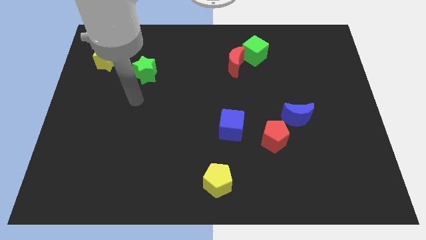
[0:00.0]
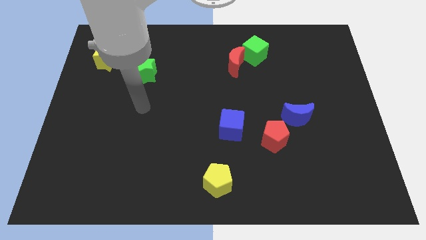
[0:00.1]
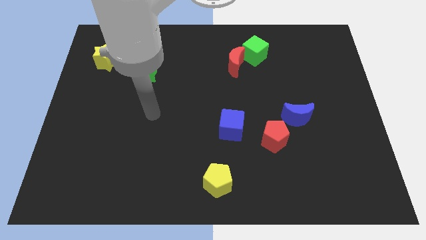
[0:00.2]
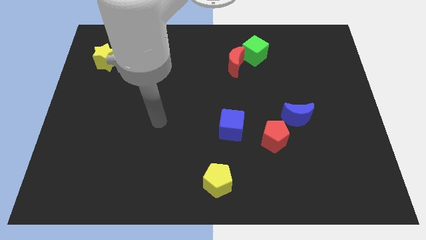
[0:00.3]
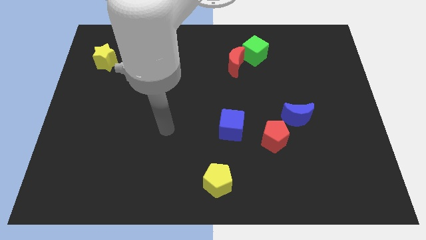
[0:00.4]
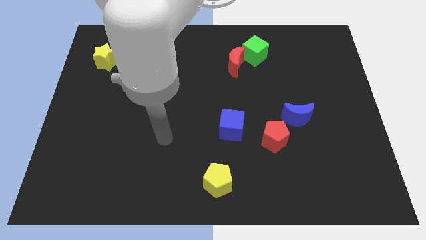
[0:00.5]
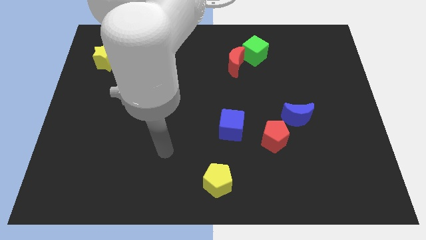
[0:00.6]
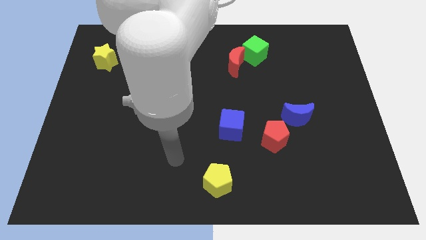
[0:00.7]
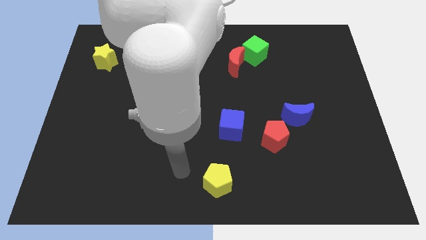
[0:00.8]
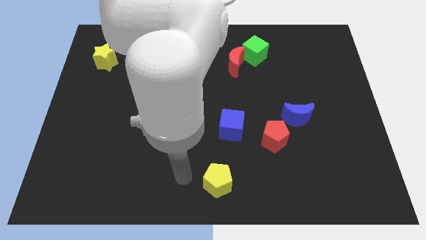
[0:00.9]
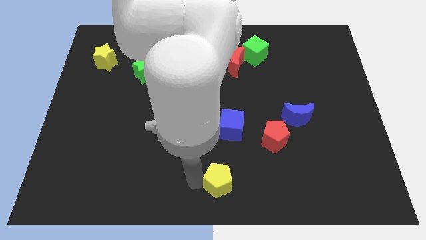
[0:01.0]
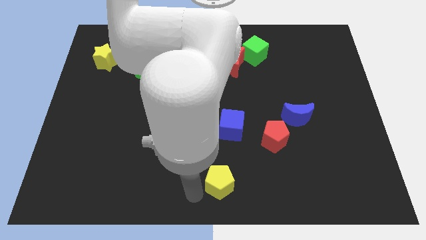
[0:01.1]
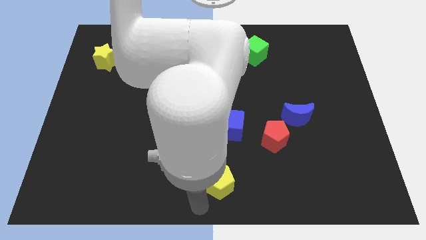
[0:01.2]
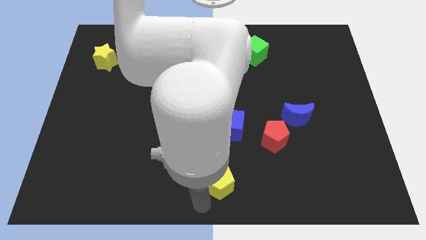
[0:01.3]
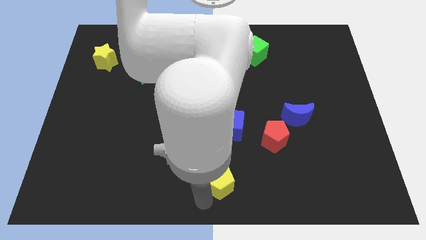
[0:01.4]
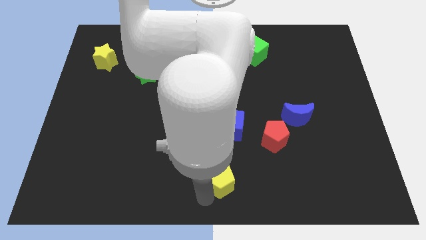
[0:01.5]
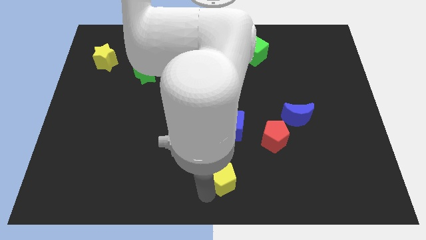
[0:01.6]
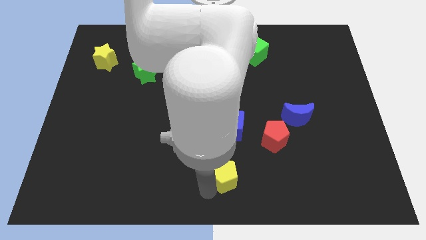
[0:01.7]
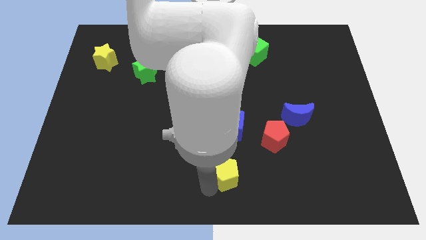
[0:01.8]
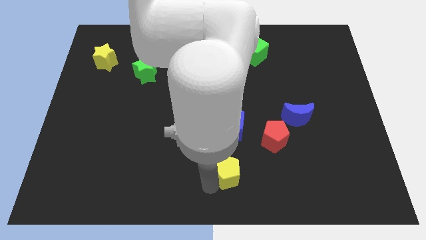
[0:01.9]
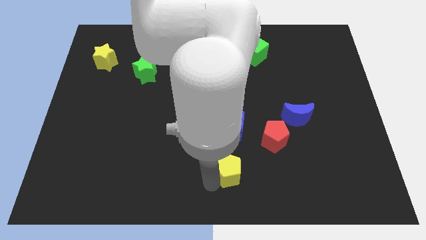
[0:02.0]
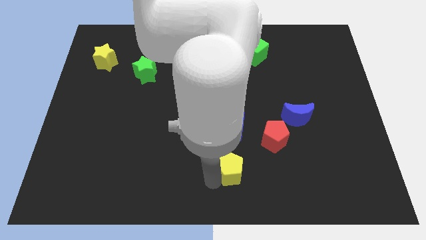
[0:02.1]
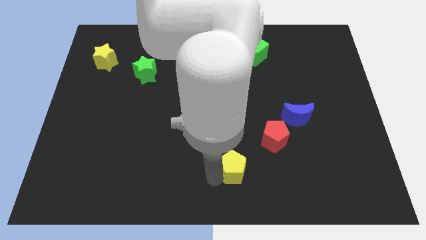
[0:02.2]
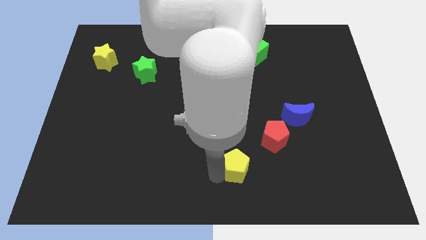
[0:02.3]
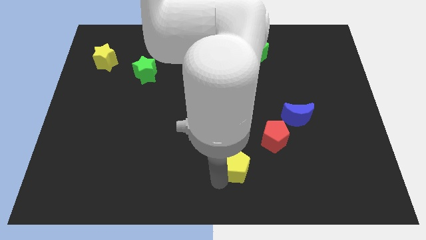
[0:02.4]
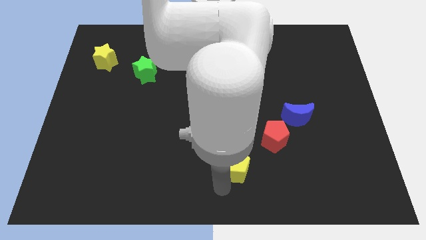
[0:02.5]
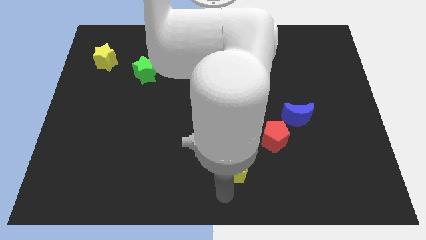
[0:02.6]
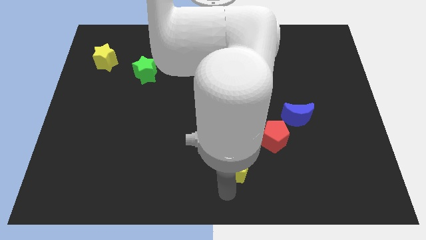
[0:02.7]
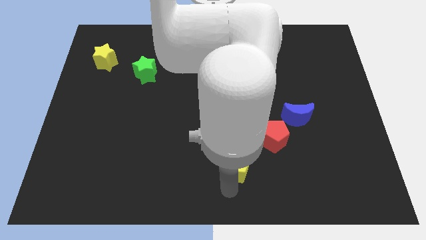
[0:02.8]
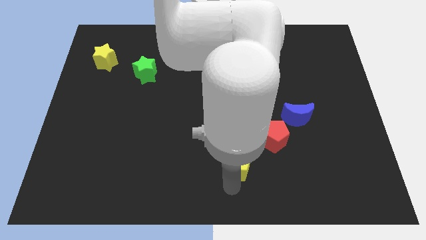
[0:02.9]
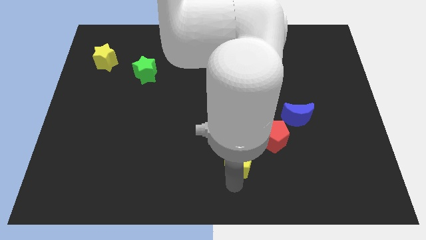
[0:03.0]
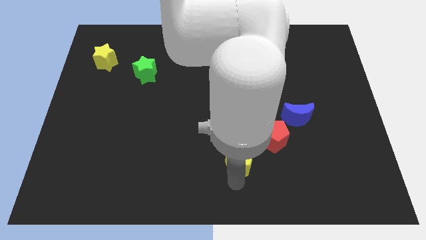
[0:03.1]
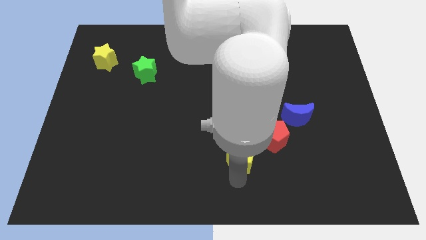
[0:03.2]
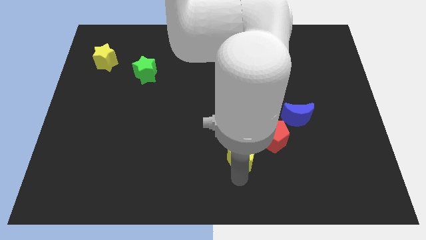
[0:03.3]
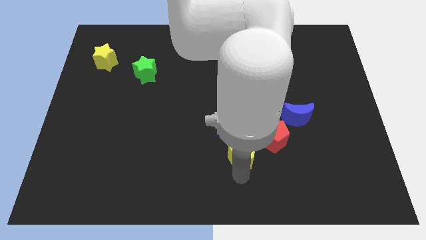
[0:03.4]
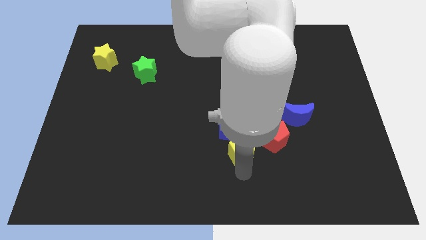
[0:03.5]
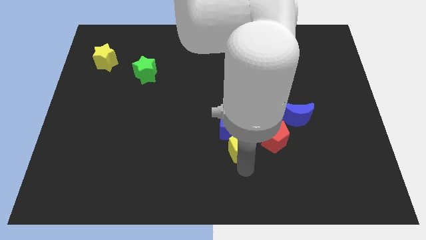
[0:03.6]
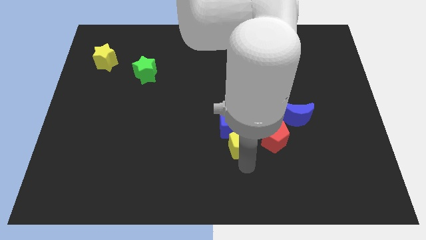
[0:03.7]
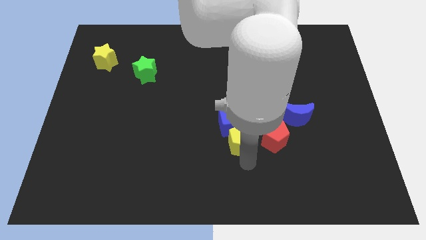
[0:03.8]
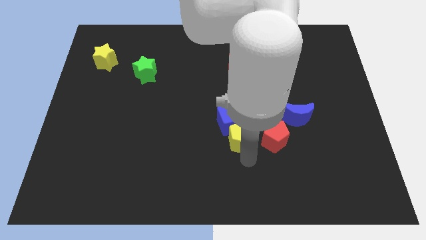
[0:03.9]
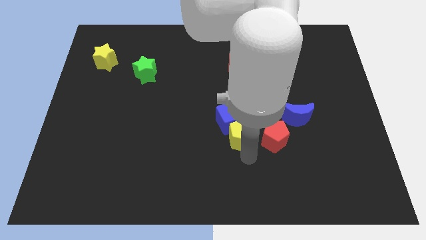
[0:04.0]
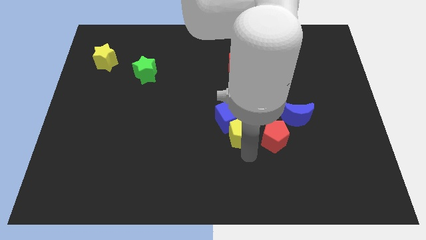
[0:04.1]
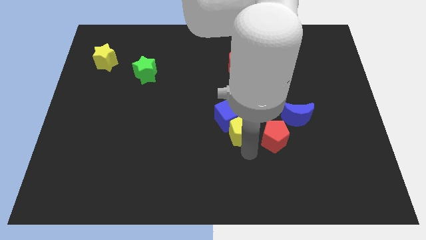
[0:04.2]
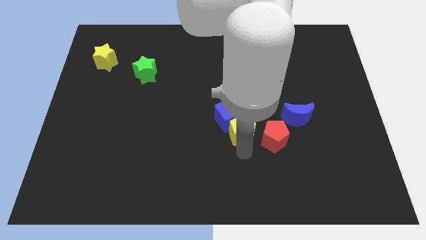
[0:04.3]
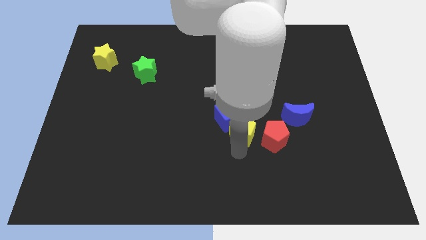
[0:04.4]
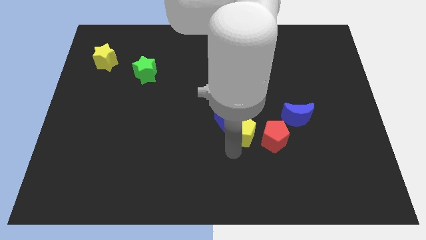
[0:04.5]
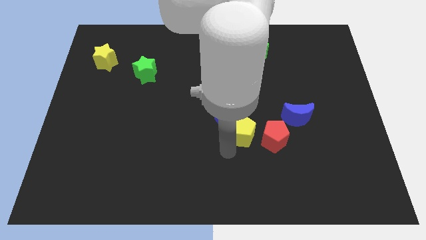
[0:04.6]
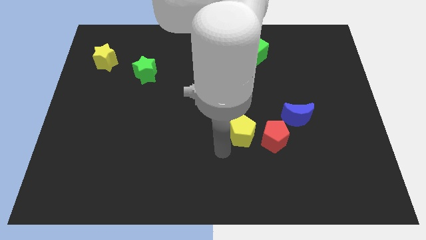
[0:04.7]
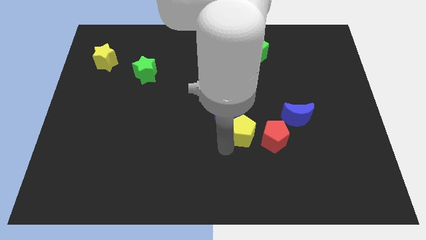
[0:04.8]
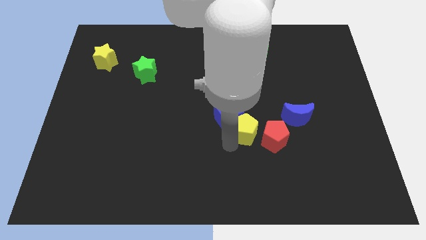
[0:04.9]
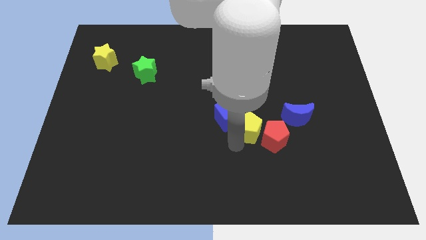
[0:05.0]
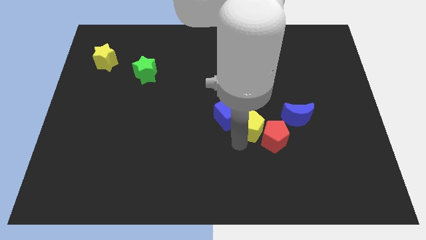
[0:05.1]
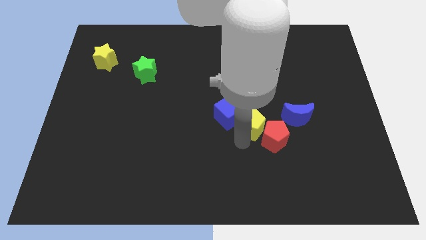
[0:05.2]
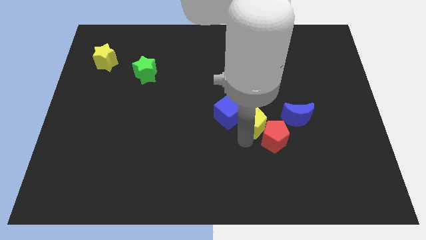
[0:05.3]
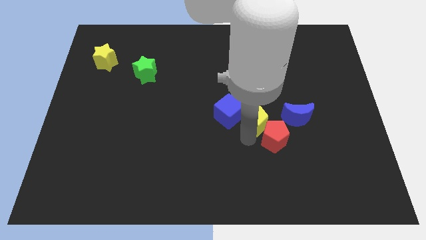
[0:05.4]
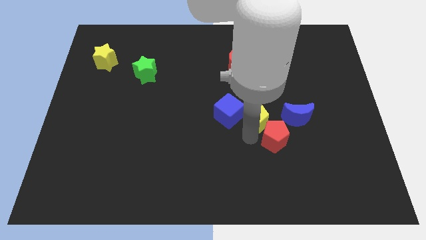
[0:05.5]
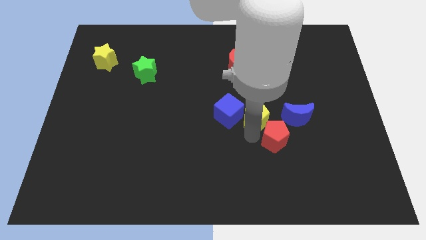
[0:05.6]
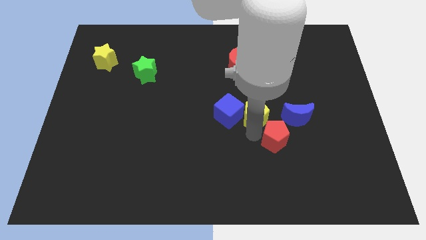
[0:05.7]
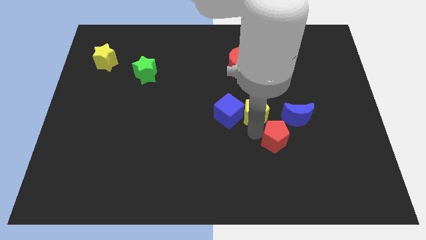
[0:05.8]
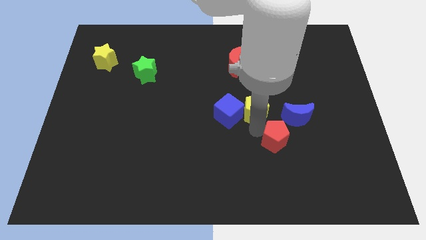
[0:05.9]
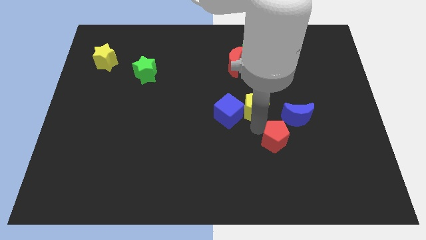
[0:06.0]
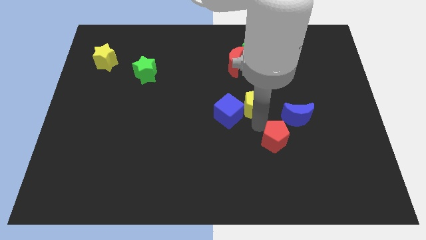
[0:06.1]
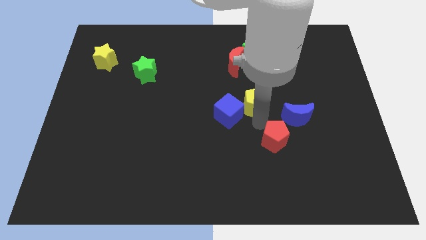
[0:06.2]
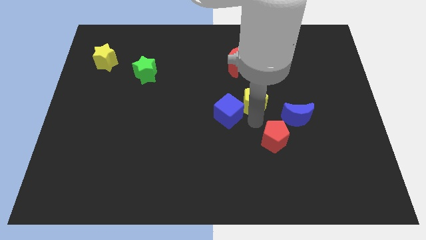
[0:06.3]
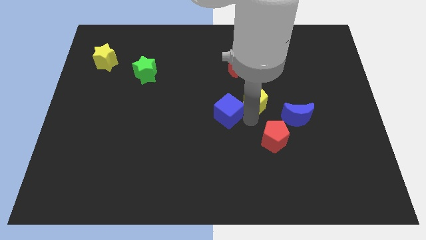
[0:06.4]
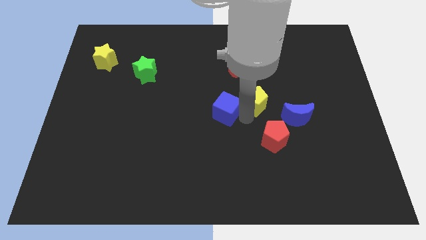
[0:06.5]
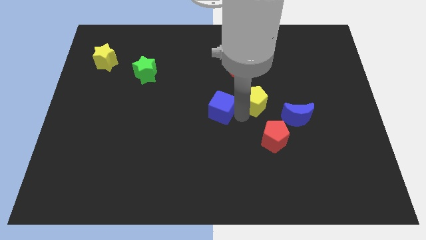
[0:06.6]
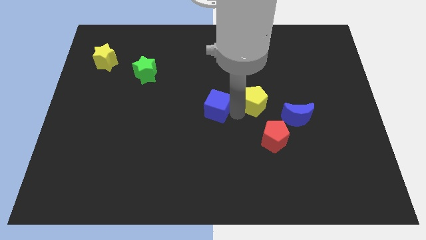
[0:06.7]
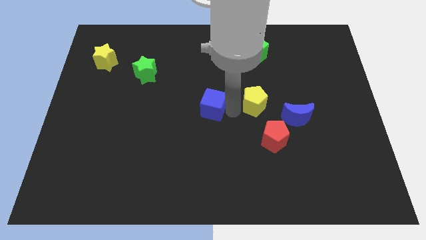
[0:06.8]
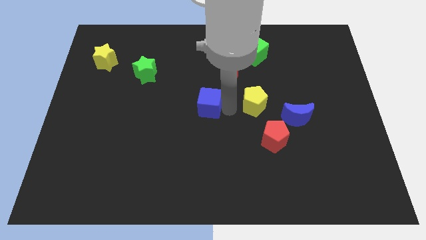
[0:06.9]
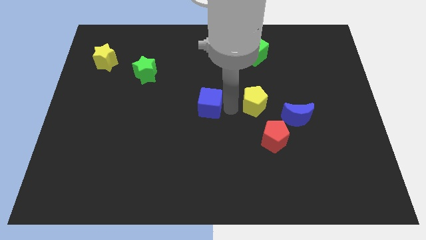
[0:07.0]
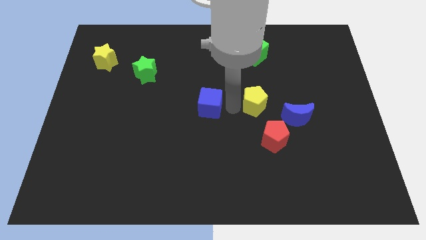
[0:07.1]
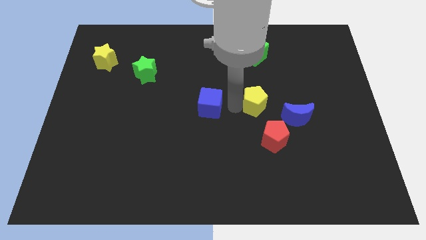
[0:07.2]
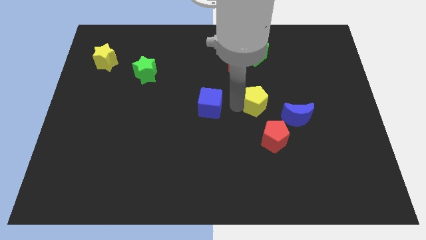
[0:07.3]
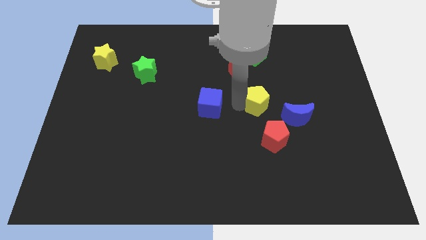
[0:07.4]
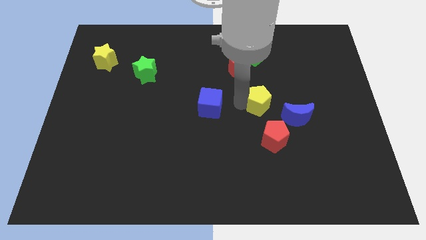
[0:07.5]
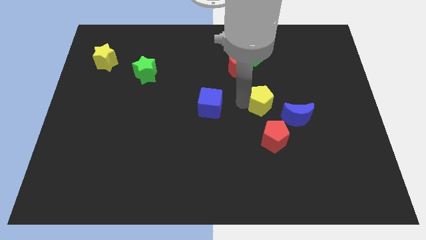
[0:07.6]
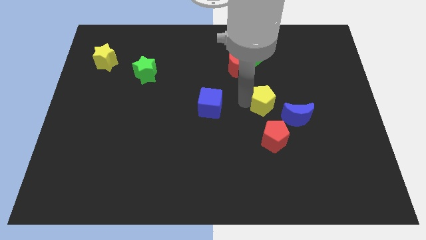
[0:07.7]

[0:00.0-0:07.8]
push the yellow pentagon up and to the right

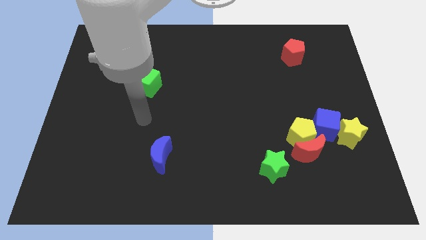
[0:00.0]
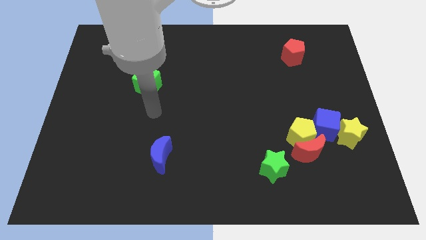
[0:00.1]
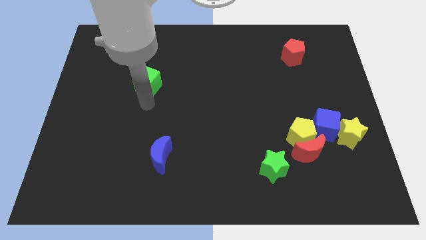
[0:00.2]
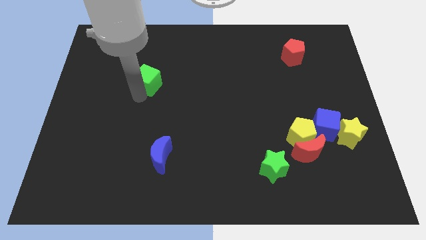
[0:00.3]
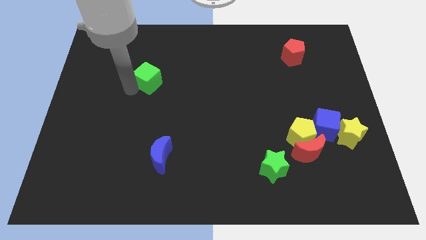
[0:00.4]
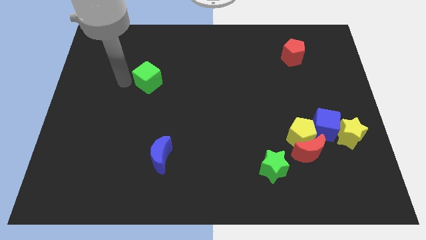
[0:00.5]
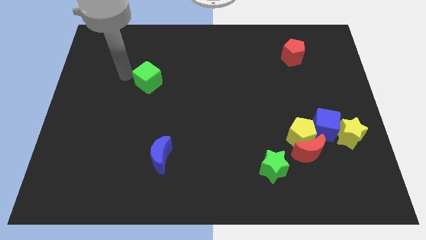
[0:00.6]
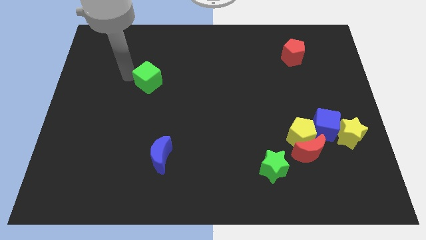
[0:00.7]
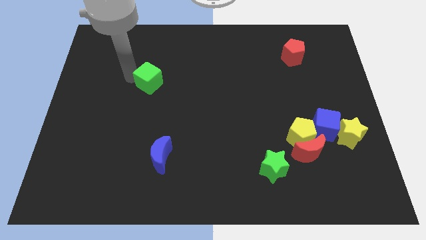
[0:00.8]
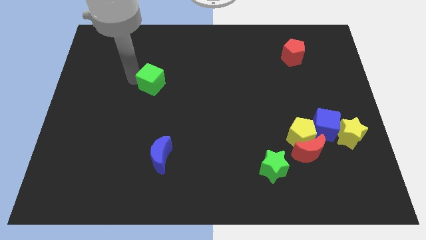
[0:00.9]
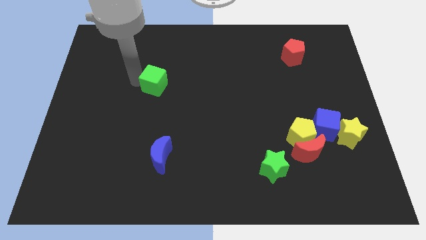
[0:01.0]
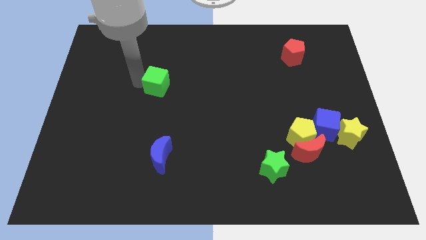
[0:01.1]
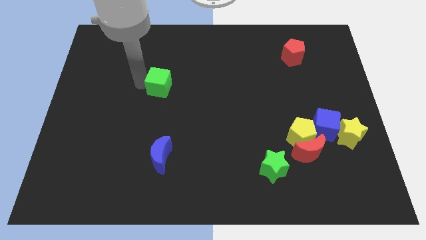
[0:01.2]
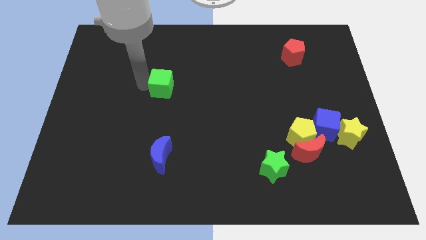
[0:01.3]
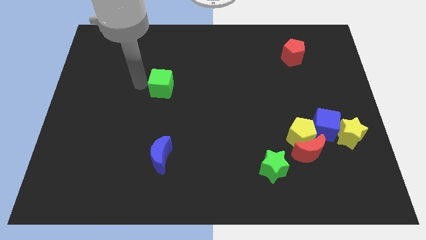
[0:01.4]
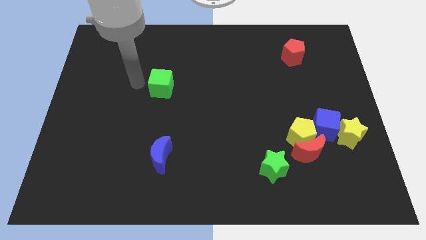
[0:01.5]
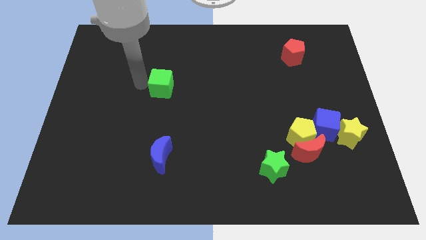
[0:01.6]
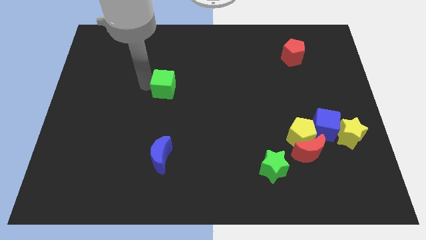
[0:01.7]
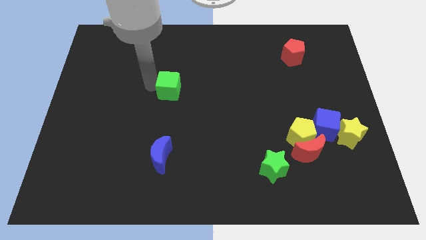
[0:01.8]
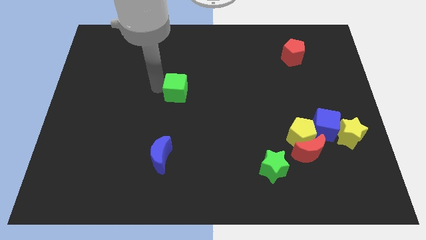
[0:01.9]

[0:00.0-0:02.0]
move the green cube slightly to the right
